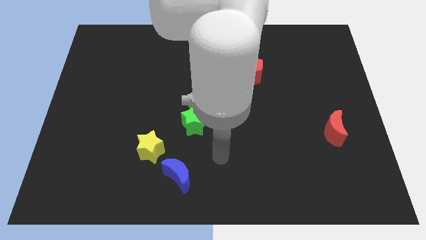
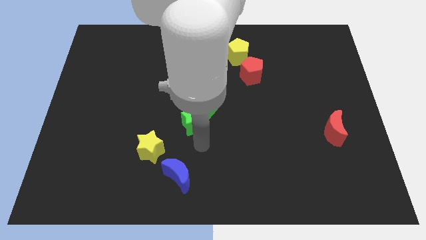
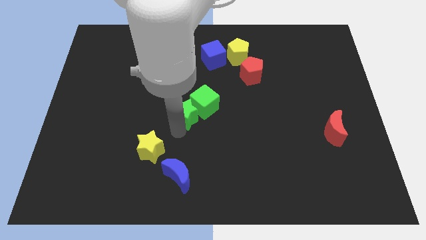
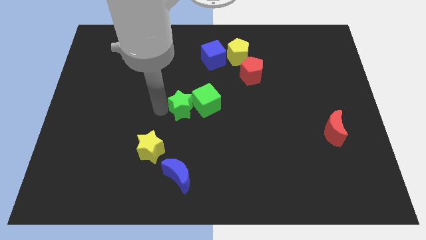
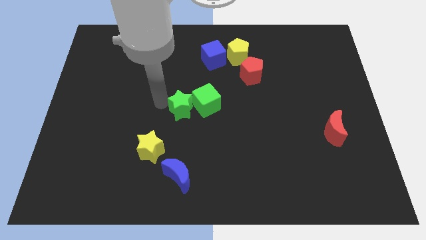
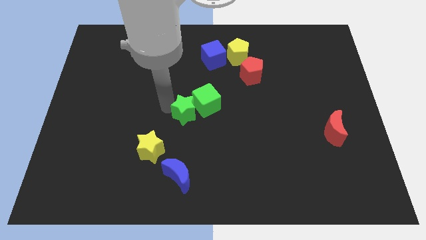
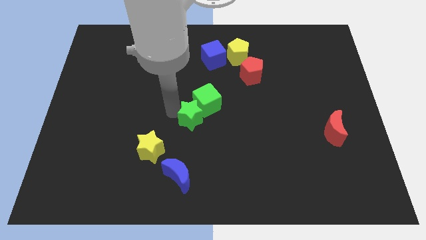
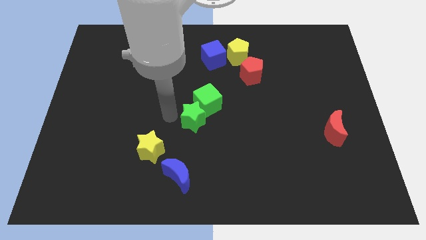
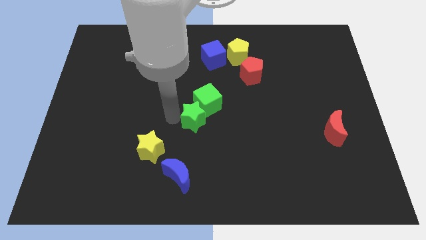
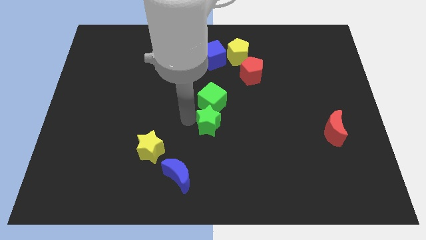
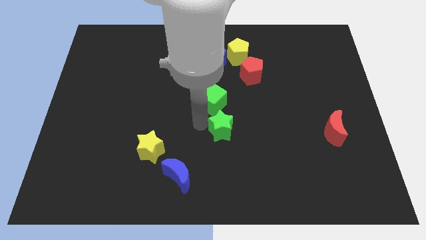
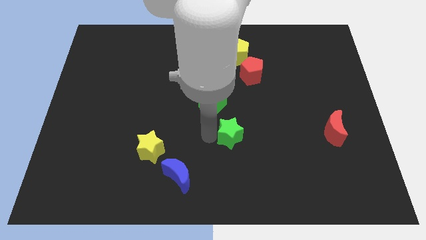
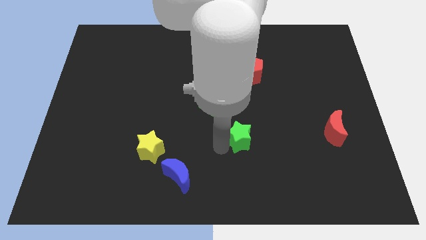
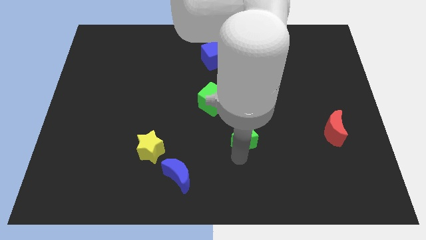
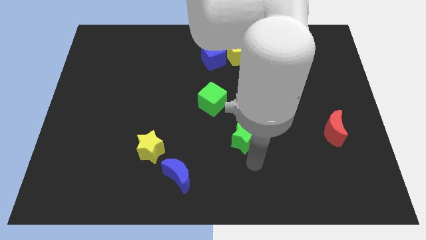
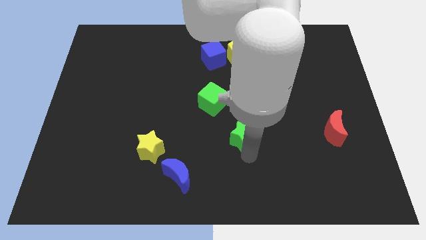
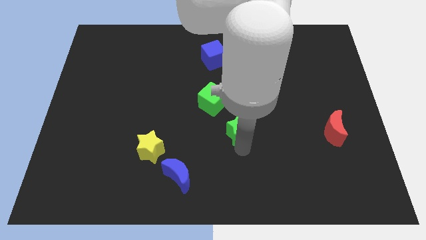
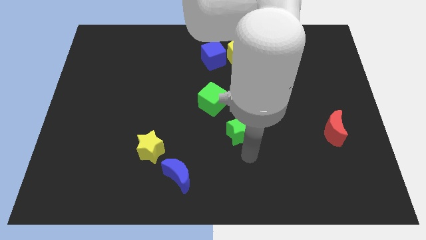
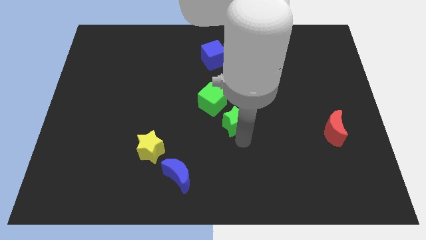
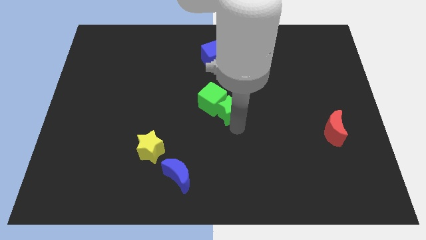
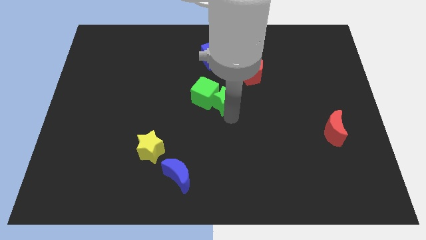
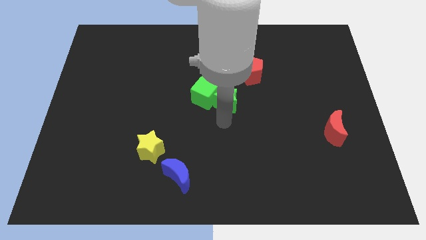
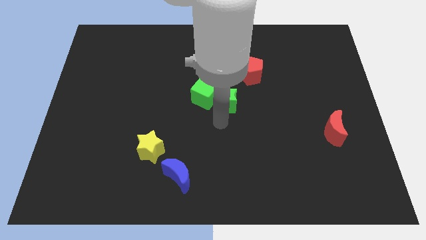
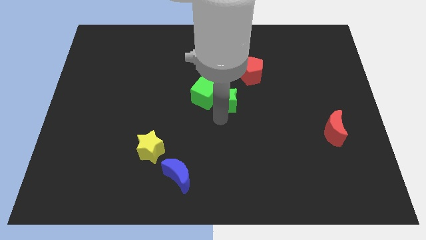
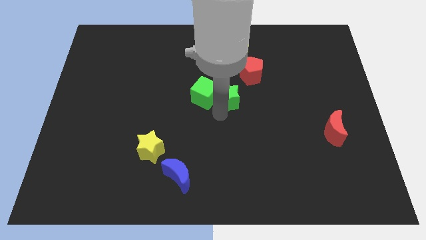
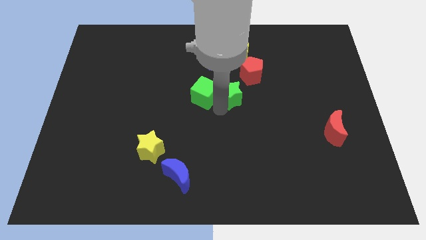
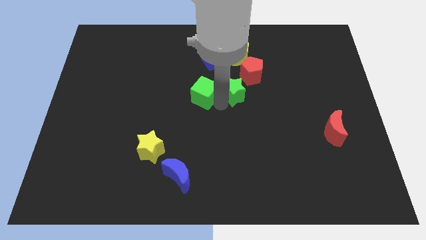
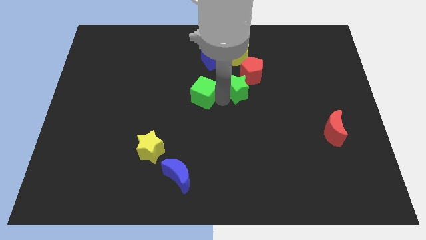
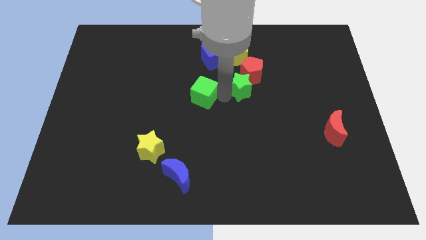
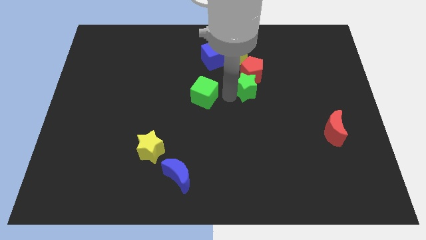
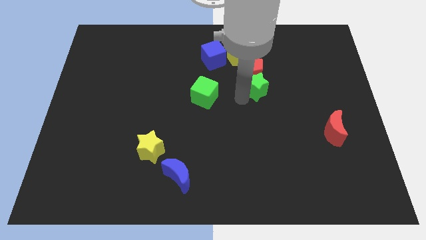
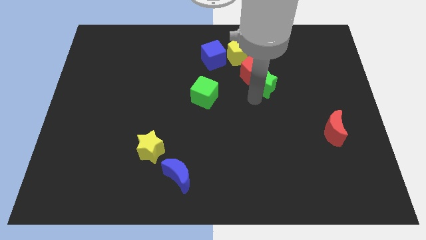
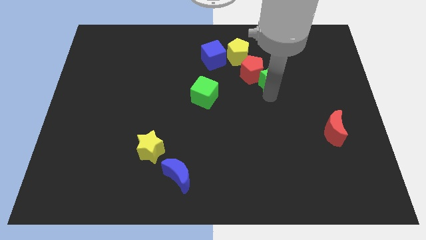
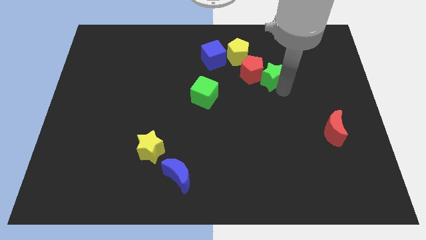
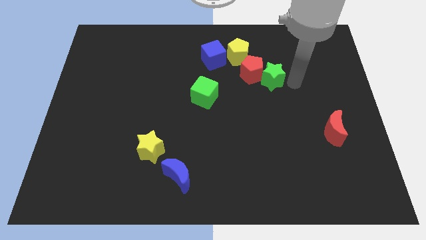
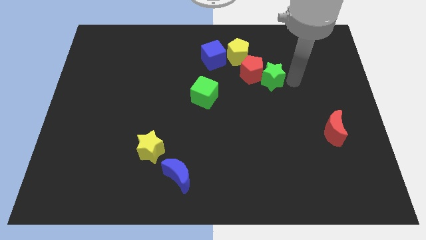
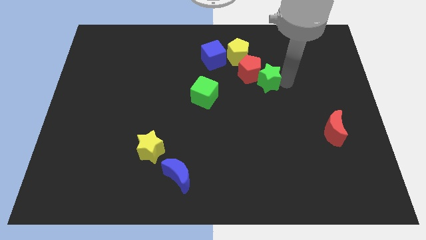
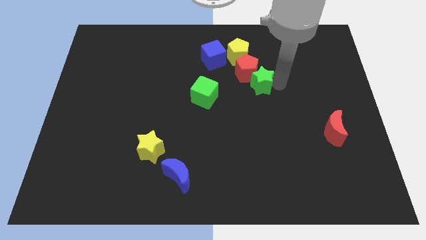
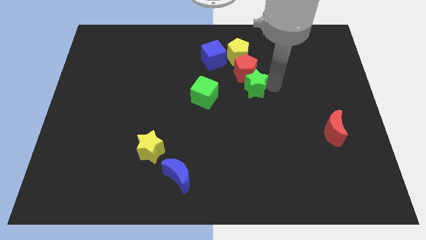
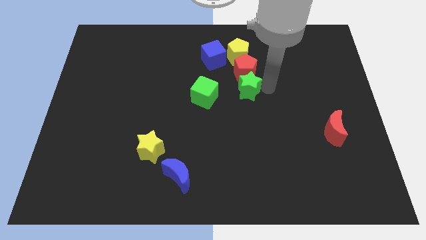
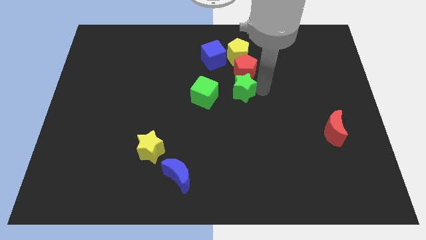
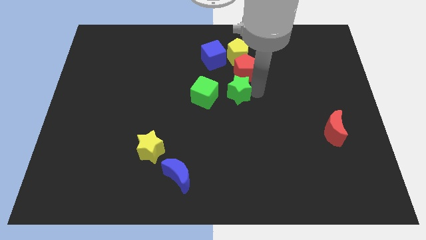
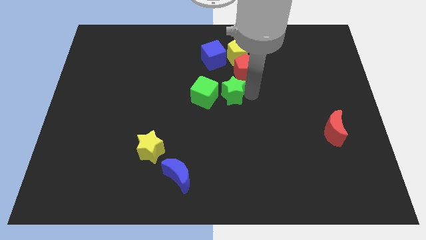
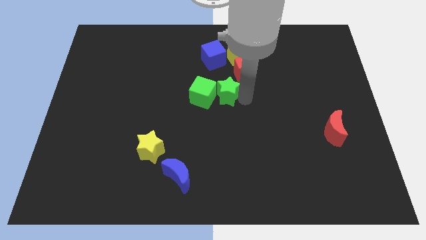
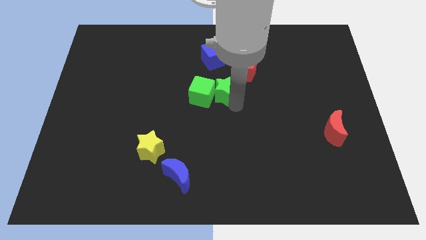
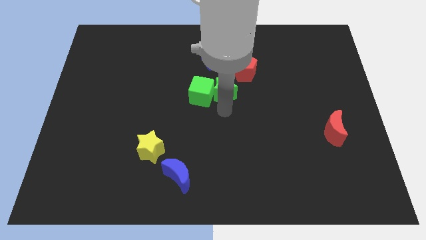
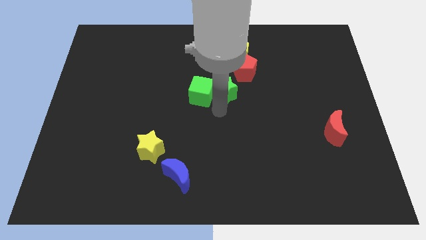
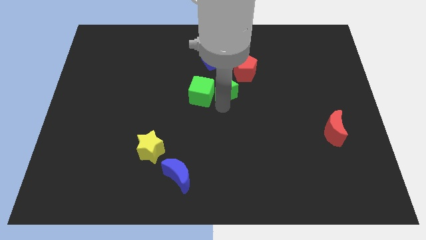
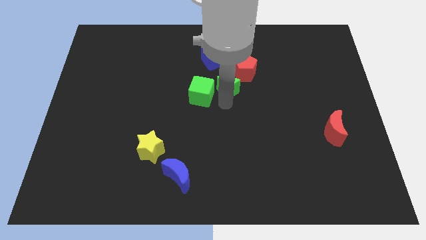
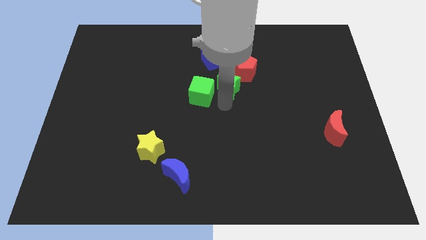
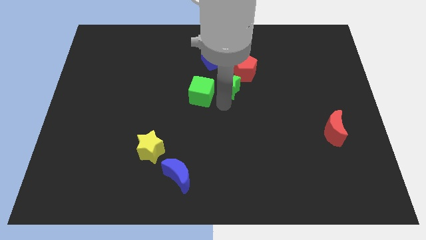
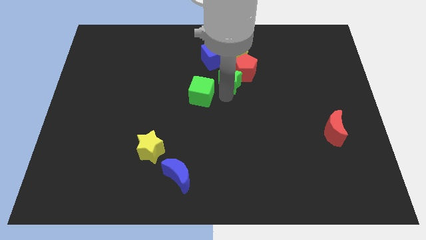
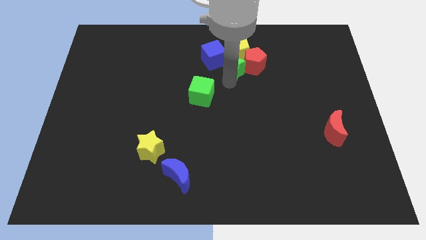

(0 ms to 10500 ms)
put the green star next to the yellow pentagon

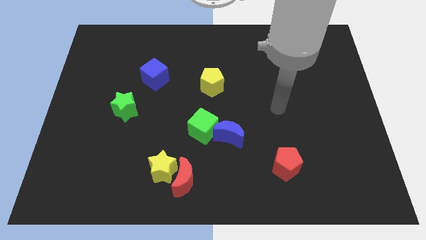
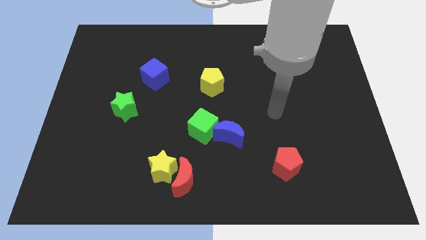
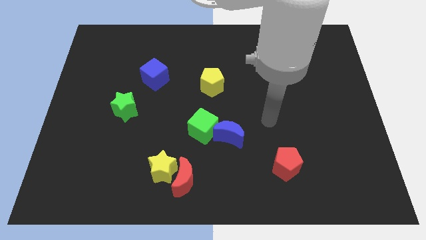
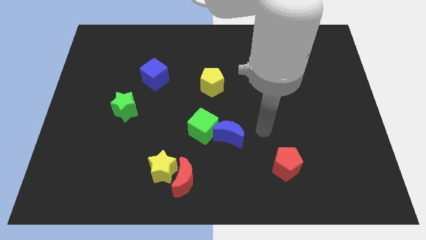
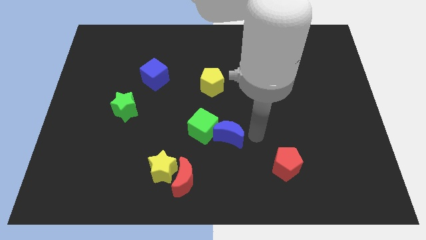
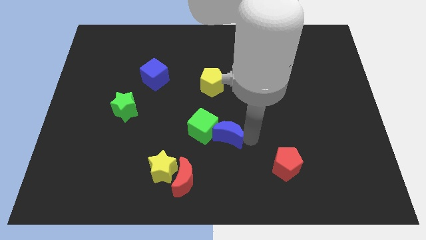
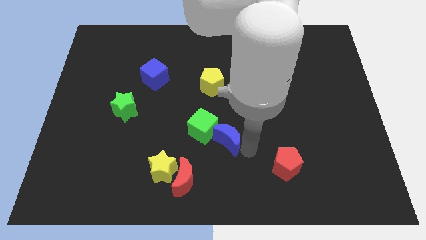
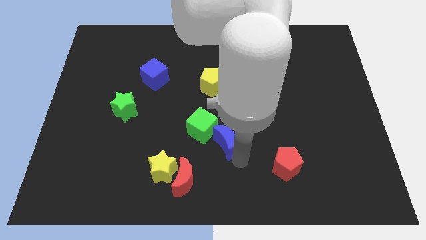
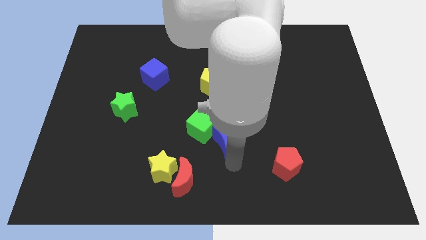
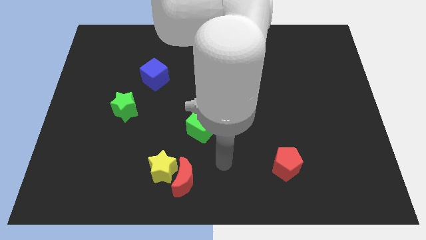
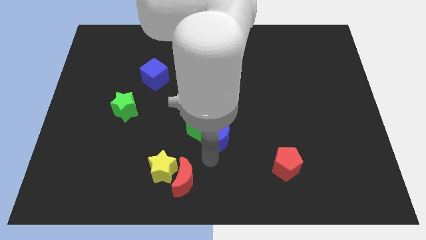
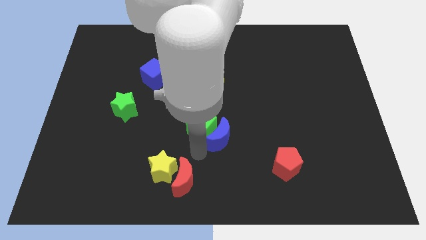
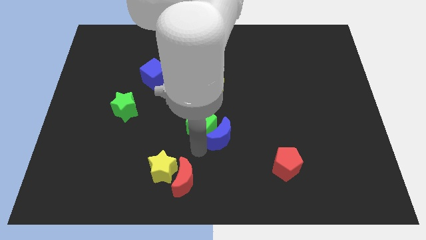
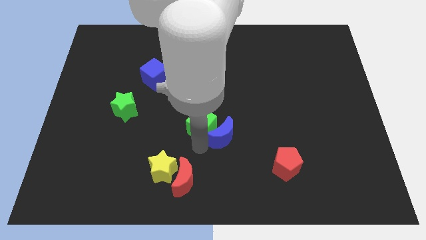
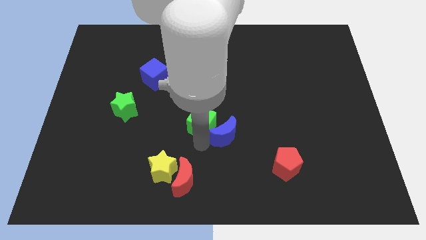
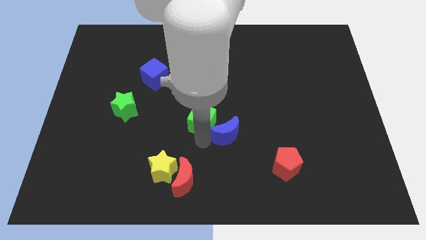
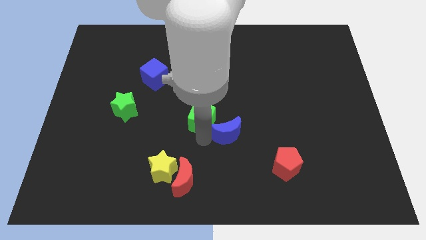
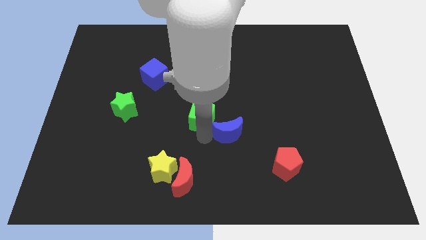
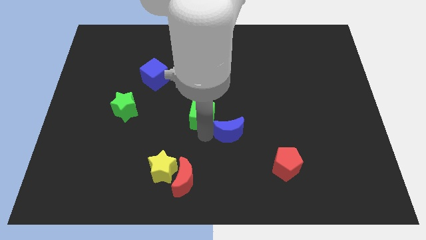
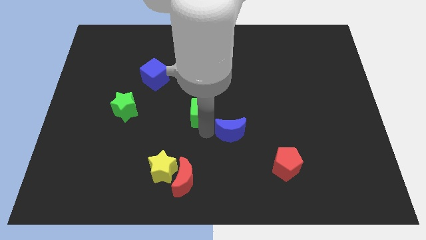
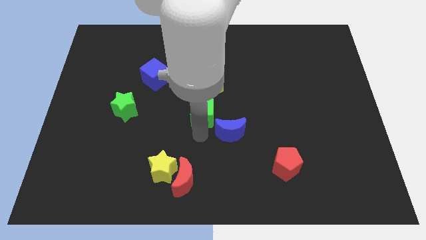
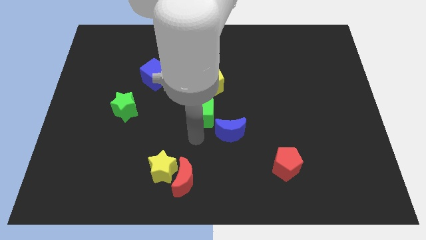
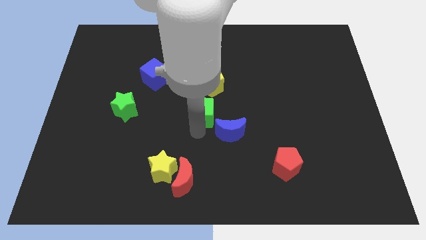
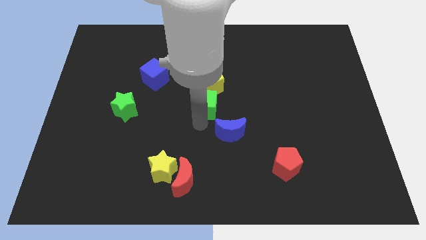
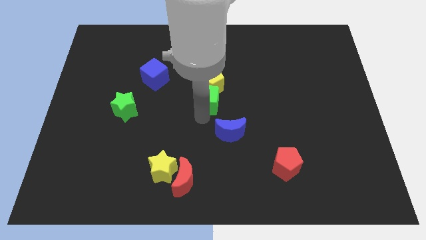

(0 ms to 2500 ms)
push the green cube to the yellow pentagon
